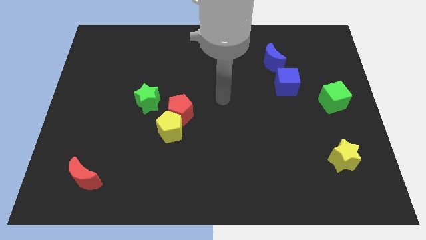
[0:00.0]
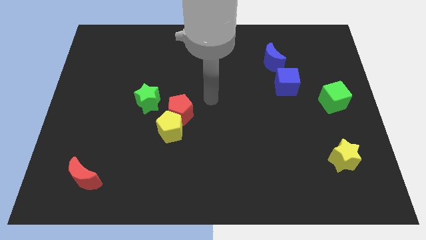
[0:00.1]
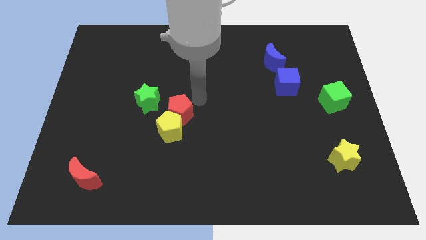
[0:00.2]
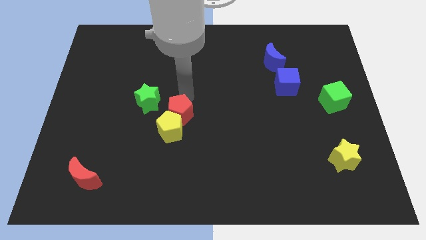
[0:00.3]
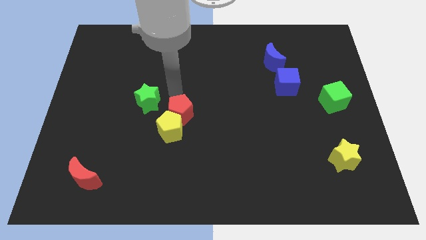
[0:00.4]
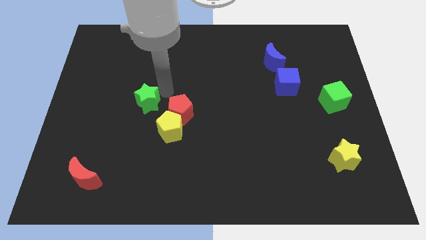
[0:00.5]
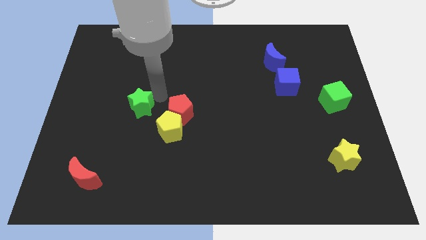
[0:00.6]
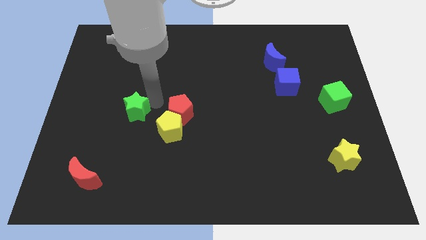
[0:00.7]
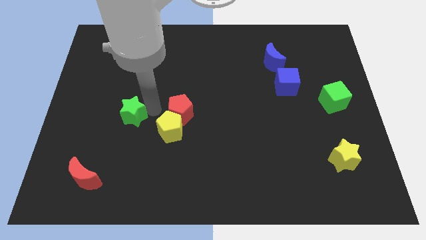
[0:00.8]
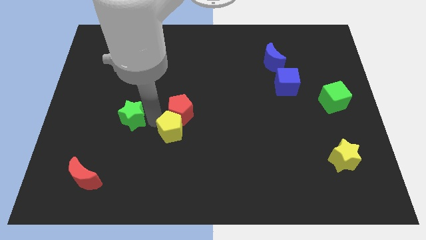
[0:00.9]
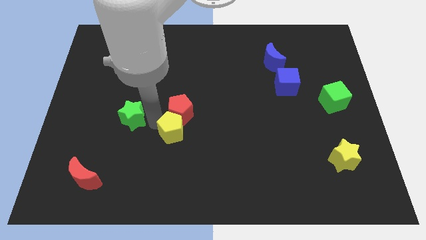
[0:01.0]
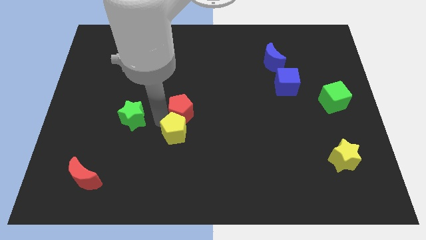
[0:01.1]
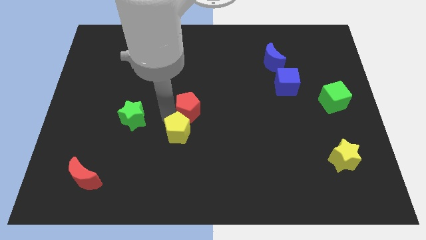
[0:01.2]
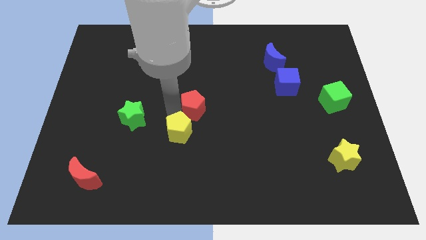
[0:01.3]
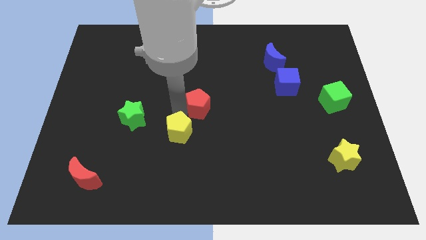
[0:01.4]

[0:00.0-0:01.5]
move the red pentagon away from the yellow pentagon and green star

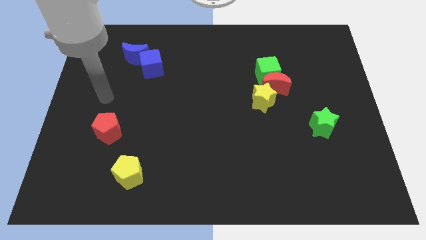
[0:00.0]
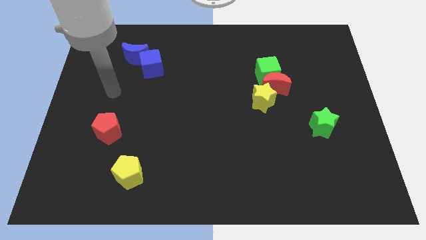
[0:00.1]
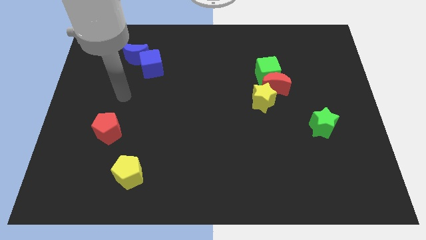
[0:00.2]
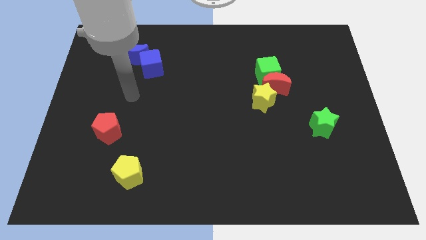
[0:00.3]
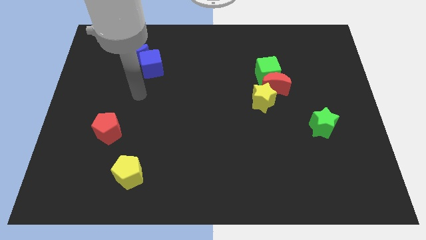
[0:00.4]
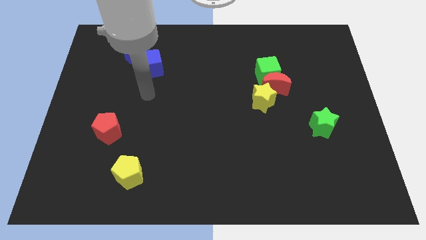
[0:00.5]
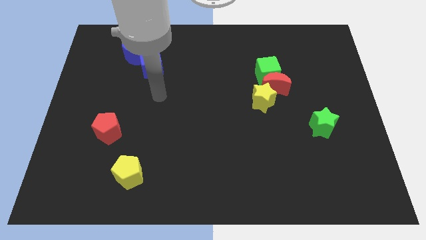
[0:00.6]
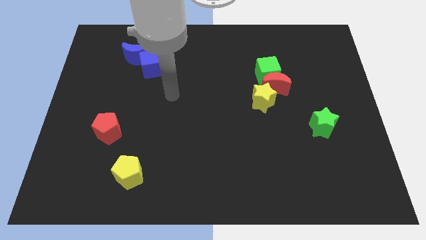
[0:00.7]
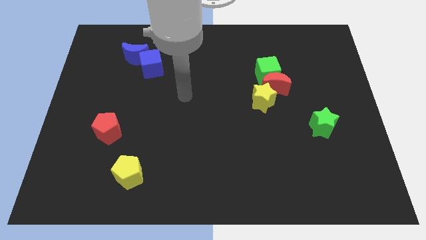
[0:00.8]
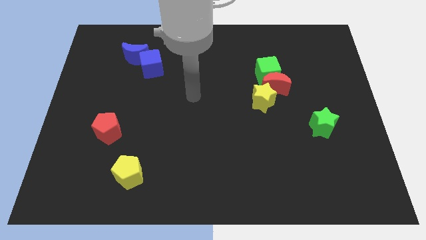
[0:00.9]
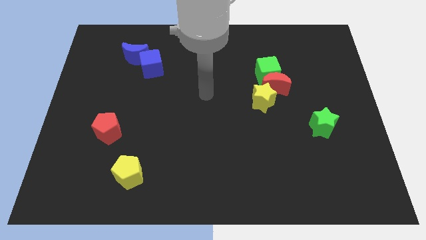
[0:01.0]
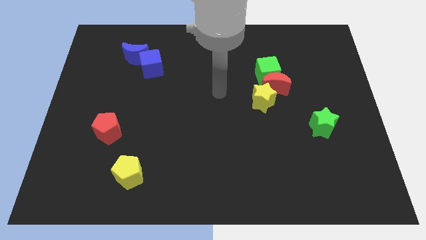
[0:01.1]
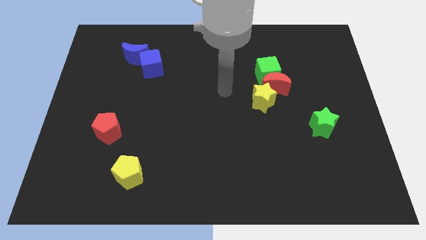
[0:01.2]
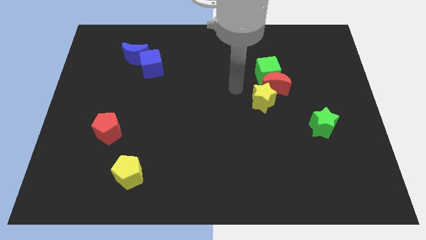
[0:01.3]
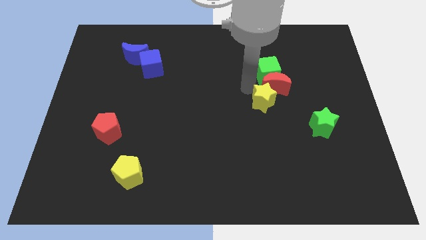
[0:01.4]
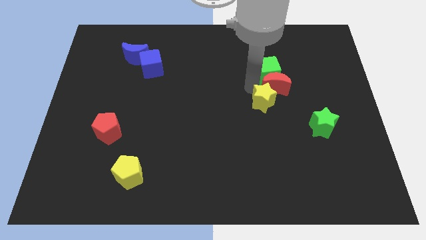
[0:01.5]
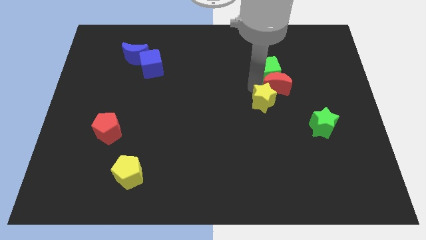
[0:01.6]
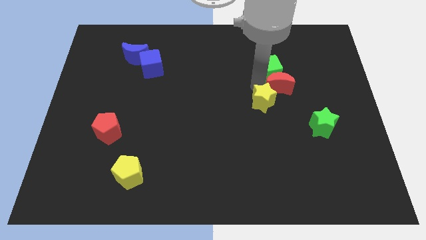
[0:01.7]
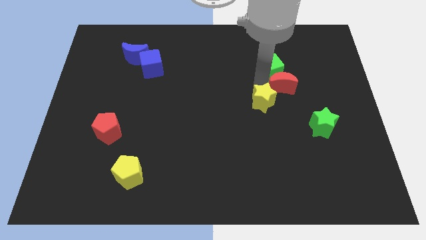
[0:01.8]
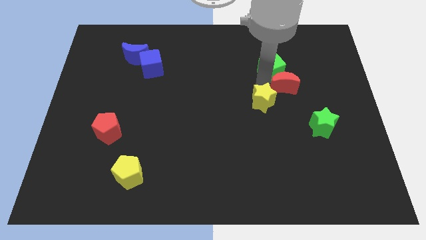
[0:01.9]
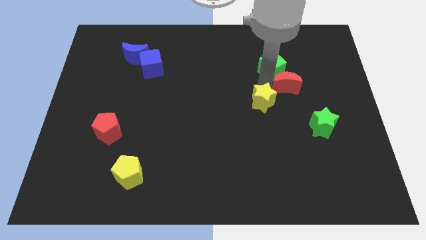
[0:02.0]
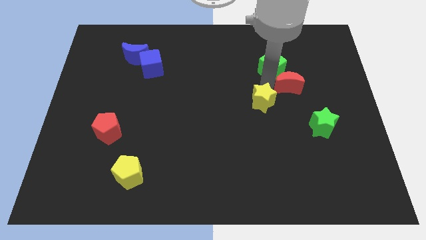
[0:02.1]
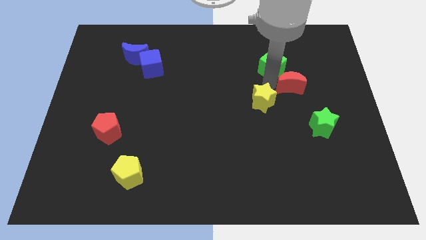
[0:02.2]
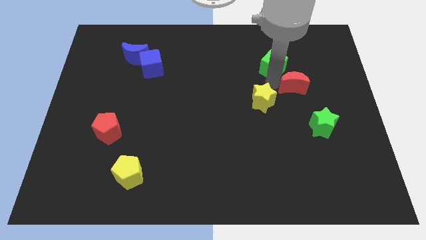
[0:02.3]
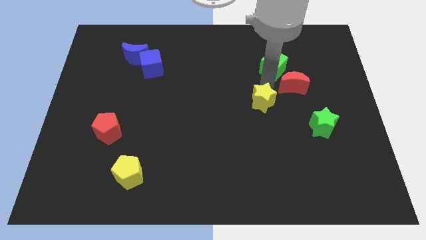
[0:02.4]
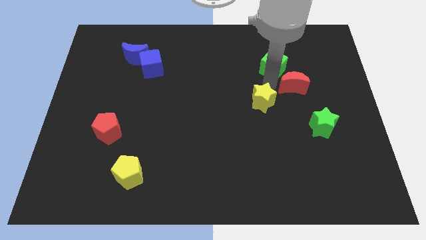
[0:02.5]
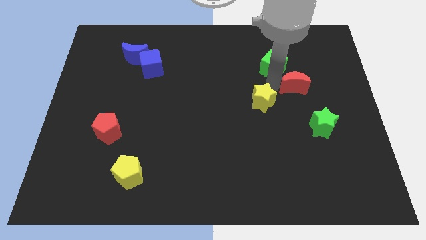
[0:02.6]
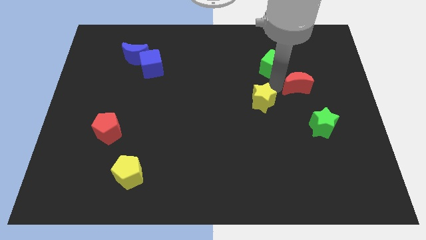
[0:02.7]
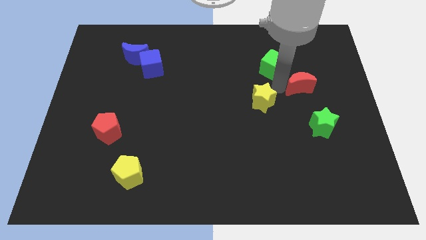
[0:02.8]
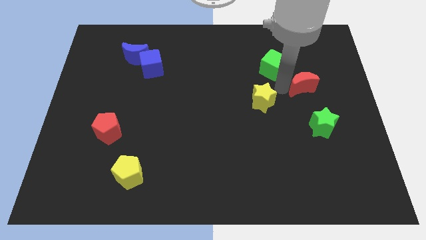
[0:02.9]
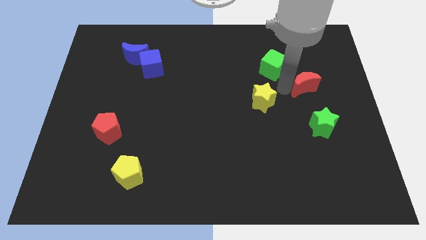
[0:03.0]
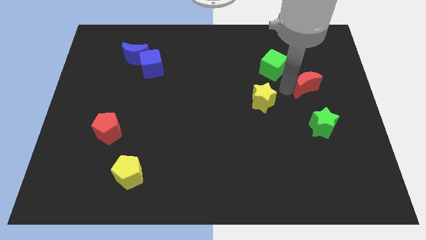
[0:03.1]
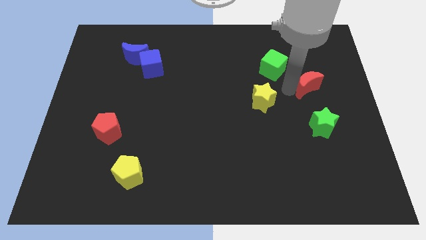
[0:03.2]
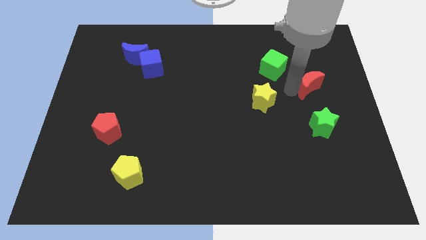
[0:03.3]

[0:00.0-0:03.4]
separate the red moon from the green cube and yellow star

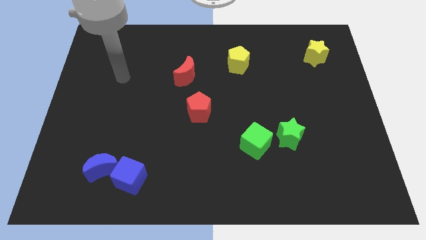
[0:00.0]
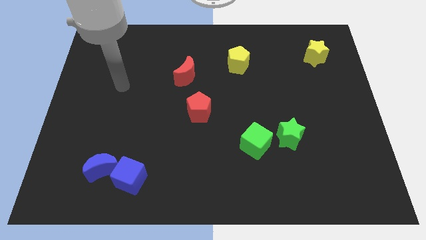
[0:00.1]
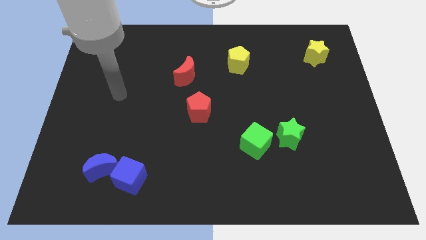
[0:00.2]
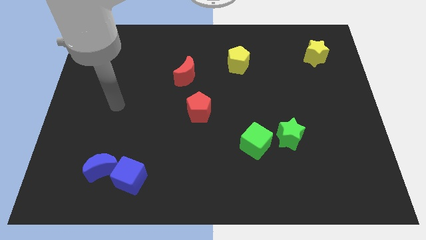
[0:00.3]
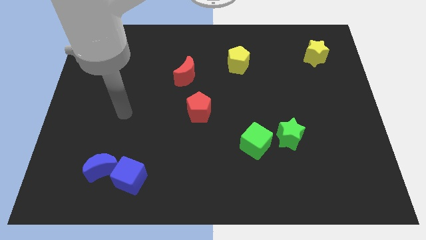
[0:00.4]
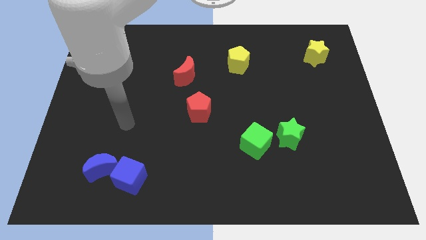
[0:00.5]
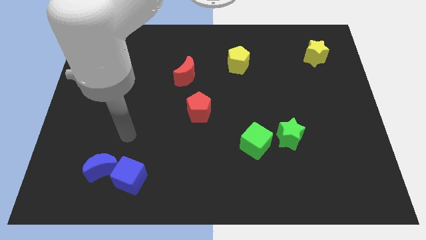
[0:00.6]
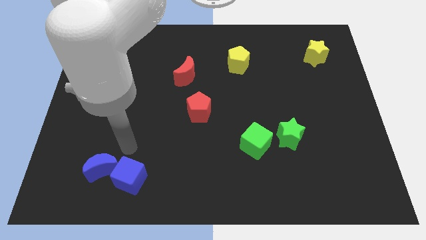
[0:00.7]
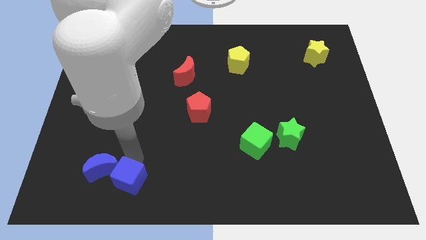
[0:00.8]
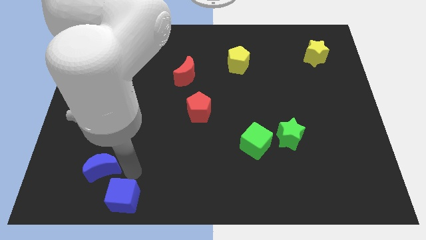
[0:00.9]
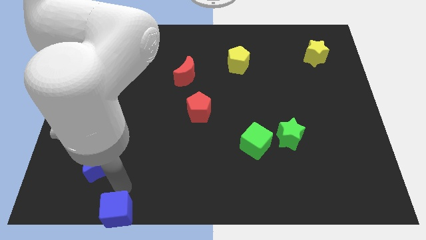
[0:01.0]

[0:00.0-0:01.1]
pull the blue moon apart from the blue cube

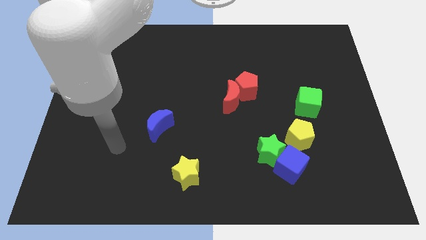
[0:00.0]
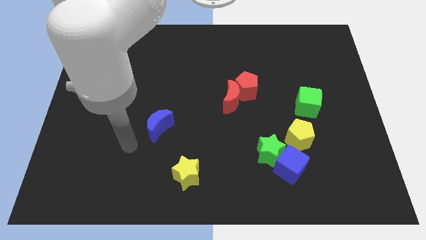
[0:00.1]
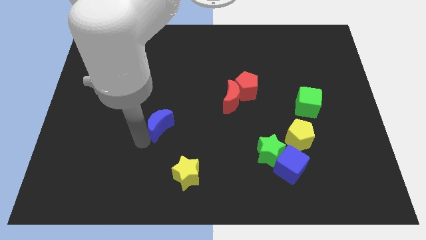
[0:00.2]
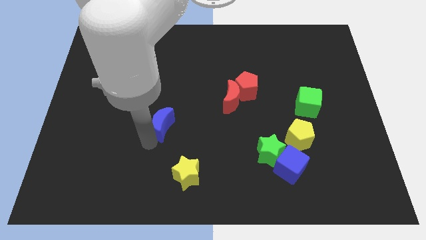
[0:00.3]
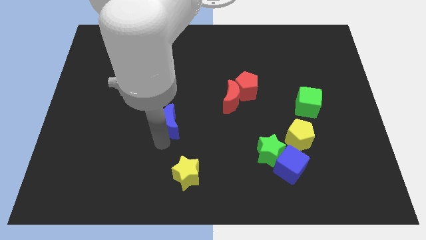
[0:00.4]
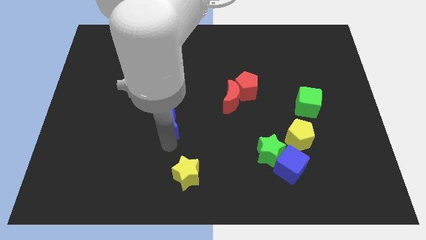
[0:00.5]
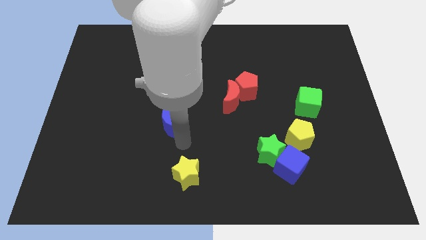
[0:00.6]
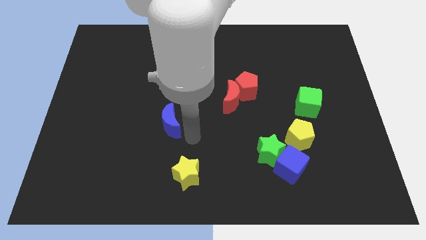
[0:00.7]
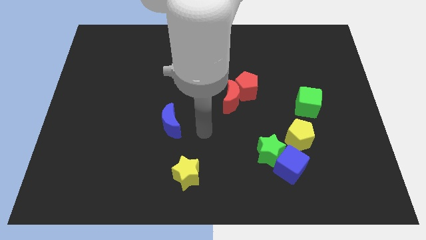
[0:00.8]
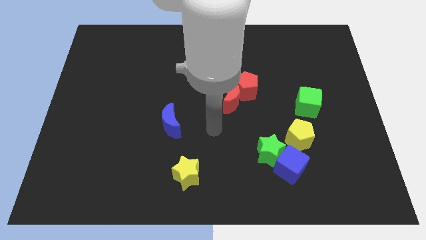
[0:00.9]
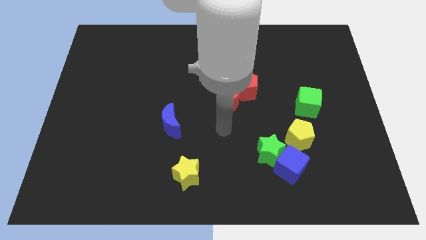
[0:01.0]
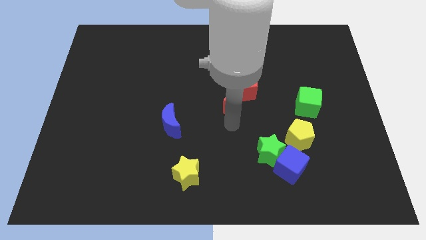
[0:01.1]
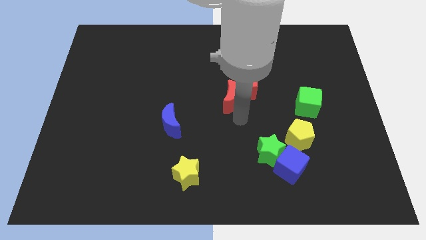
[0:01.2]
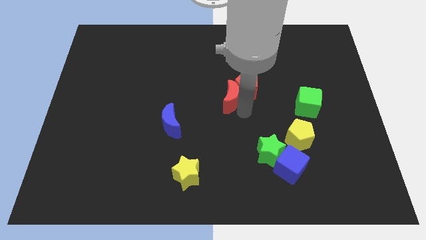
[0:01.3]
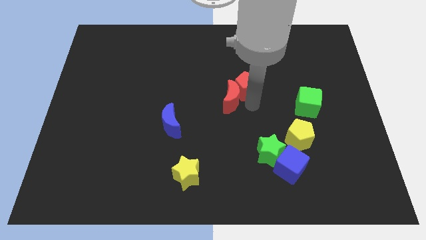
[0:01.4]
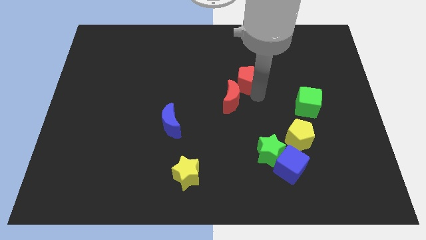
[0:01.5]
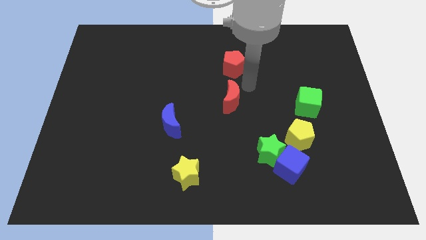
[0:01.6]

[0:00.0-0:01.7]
separate the red moon from the red pentagon

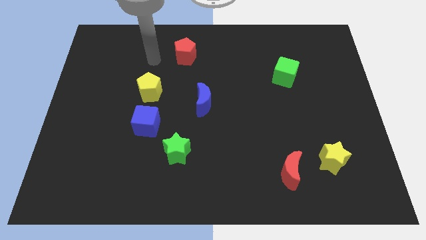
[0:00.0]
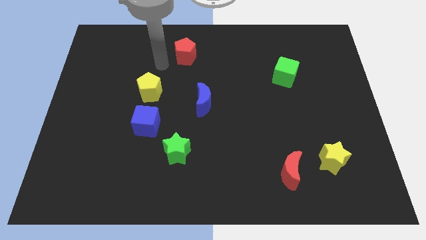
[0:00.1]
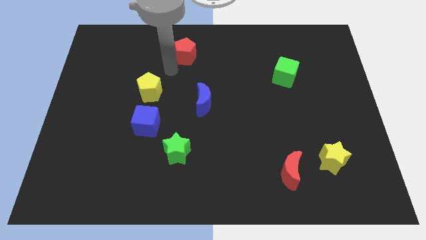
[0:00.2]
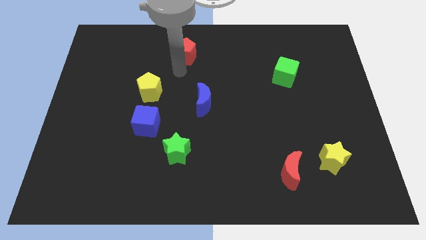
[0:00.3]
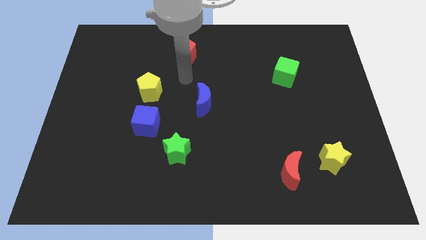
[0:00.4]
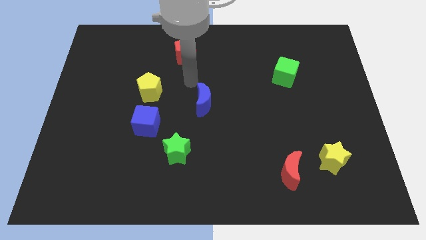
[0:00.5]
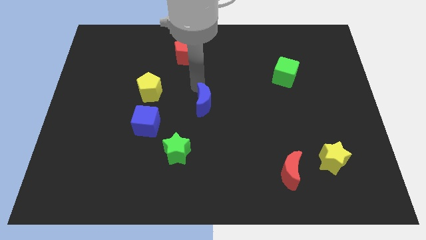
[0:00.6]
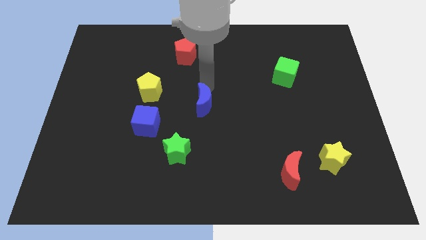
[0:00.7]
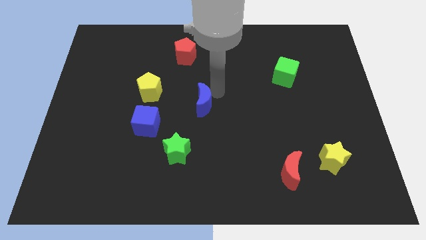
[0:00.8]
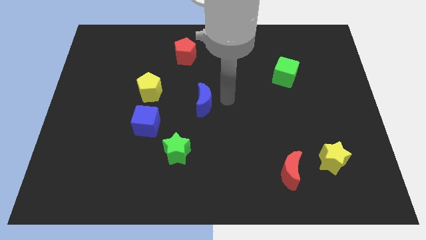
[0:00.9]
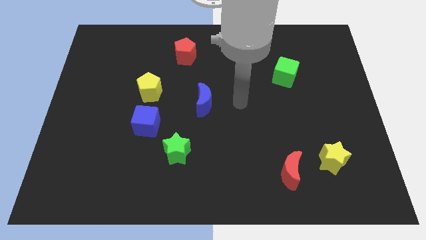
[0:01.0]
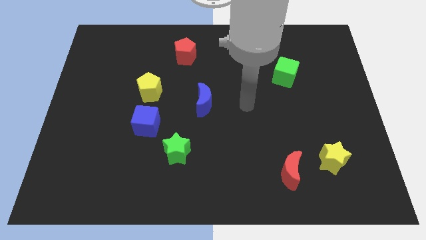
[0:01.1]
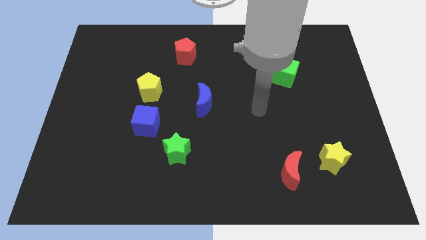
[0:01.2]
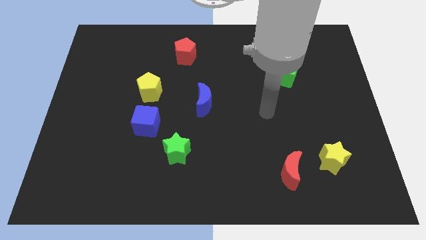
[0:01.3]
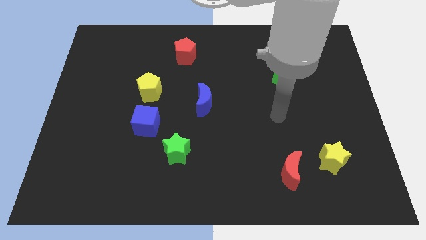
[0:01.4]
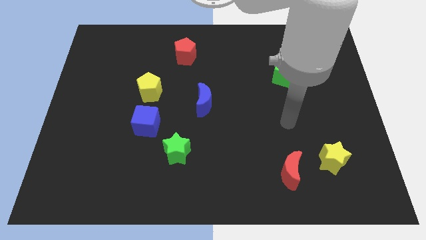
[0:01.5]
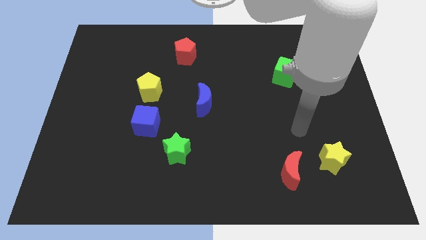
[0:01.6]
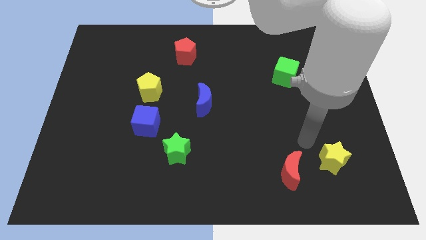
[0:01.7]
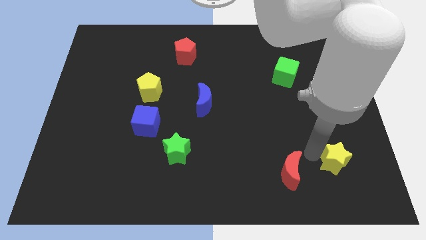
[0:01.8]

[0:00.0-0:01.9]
move the red moon away from the yellow star
